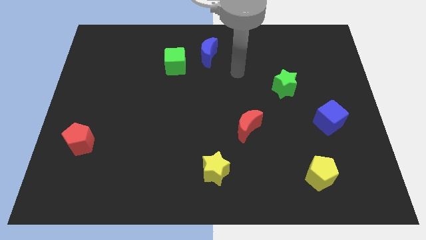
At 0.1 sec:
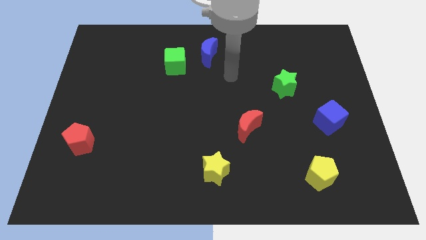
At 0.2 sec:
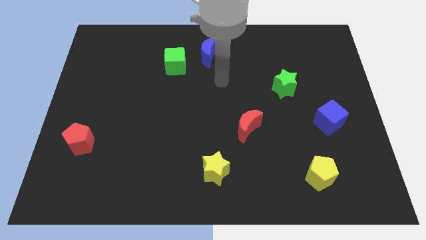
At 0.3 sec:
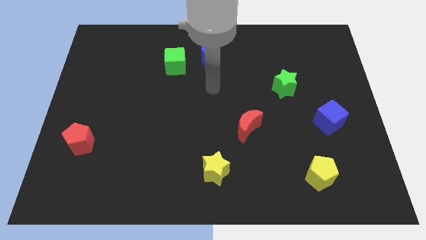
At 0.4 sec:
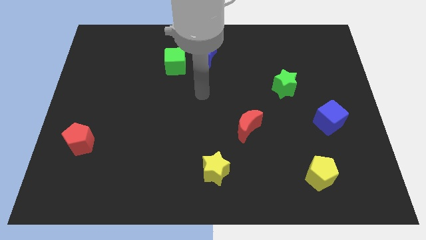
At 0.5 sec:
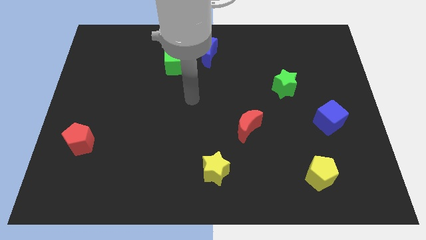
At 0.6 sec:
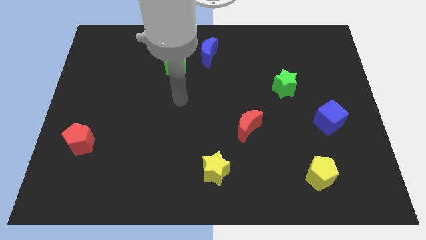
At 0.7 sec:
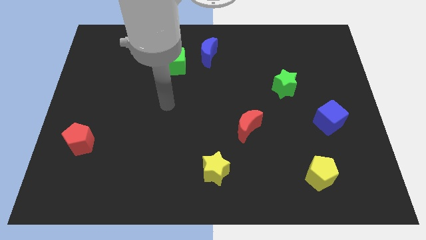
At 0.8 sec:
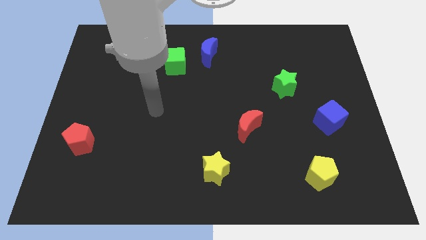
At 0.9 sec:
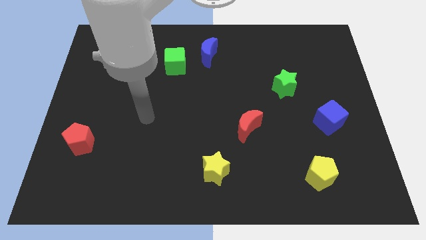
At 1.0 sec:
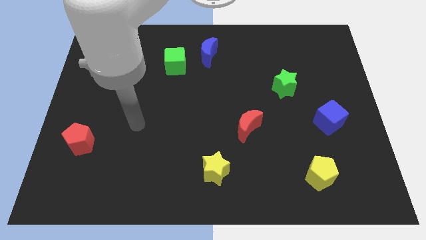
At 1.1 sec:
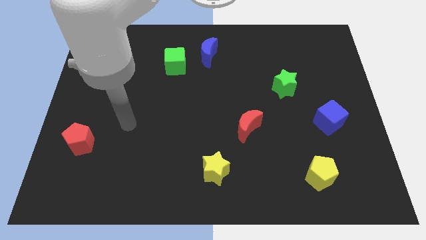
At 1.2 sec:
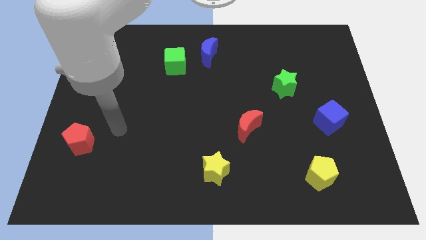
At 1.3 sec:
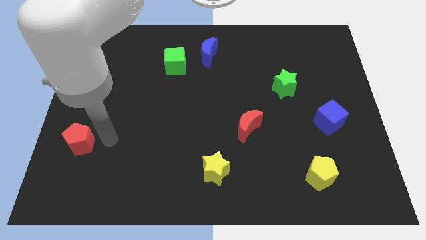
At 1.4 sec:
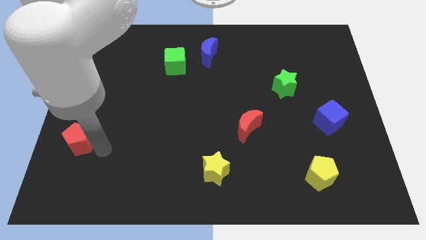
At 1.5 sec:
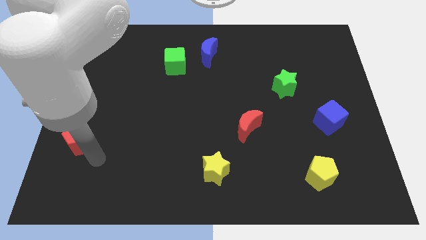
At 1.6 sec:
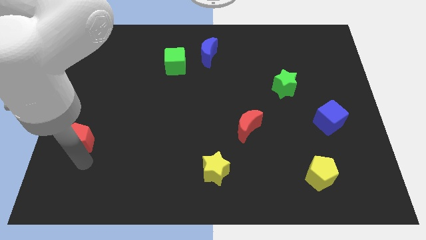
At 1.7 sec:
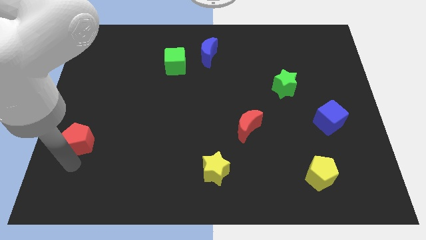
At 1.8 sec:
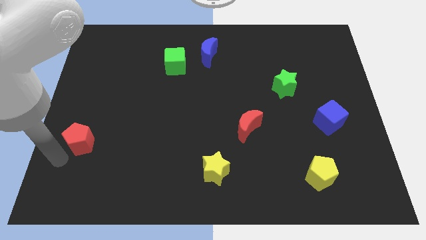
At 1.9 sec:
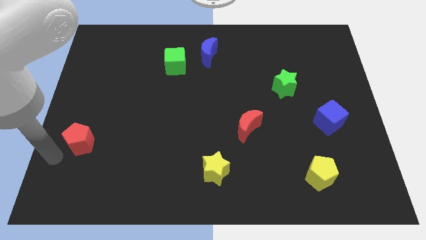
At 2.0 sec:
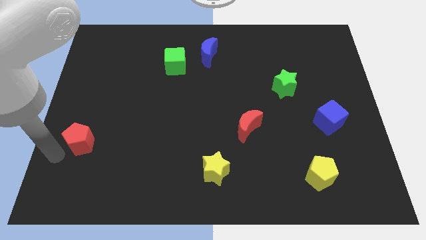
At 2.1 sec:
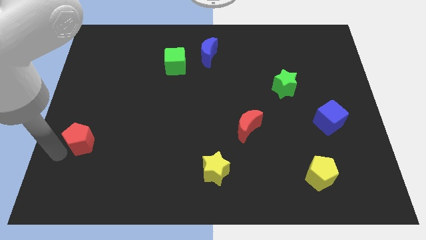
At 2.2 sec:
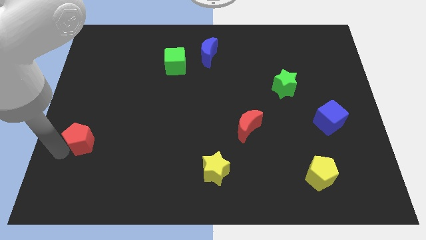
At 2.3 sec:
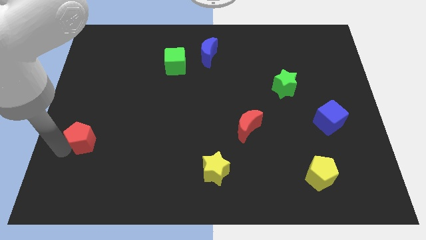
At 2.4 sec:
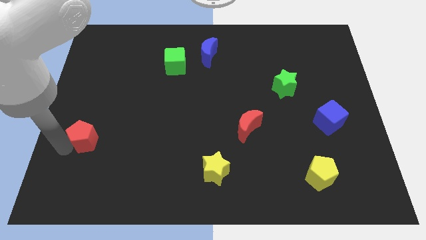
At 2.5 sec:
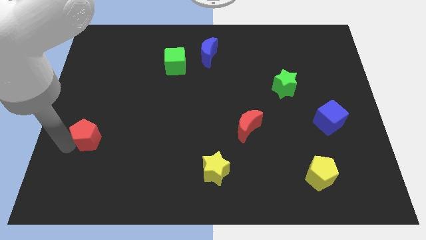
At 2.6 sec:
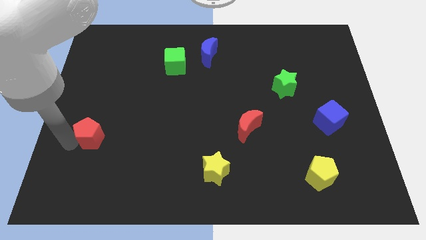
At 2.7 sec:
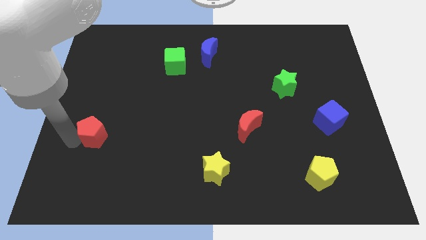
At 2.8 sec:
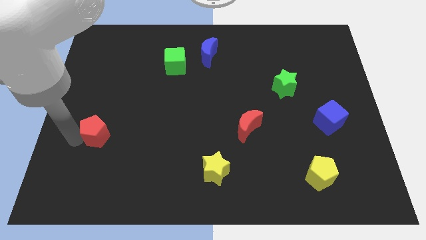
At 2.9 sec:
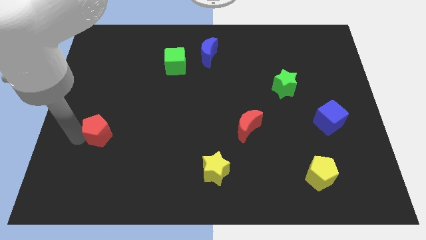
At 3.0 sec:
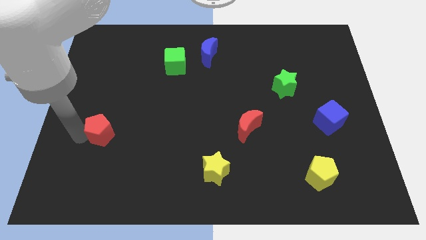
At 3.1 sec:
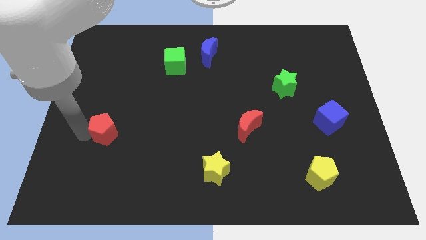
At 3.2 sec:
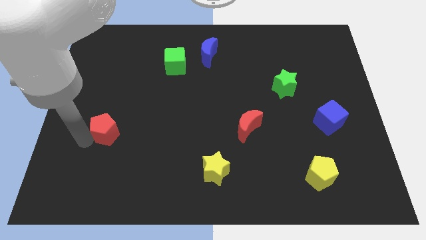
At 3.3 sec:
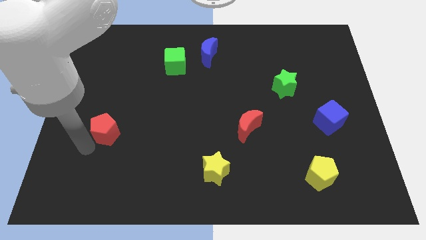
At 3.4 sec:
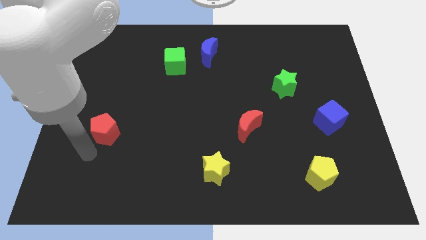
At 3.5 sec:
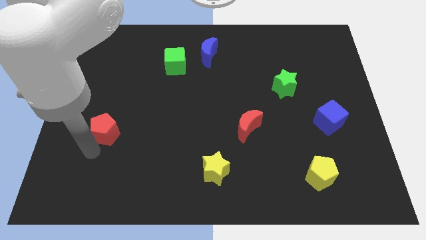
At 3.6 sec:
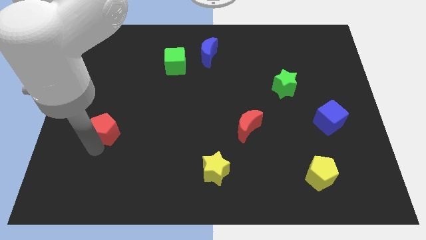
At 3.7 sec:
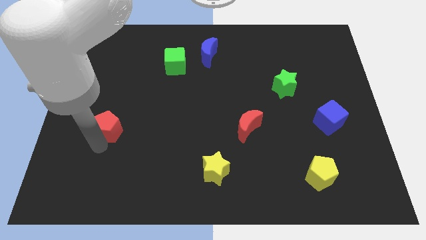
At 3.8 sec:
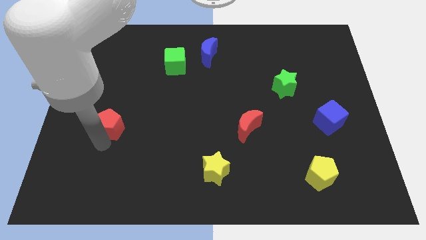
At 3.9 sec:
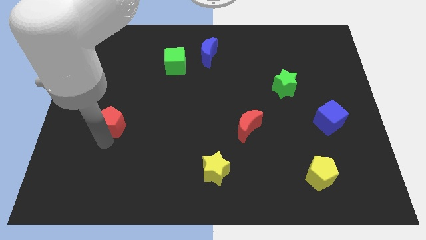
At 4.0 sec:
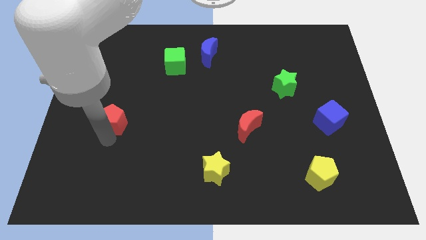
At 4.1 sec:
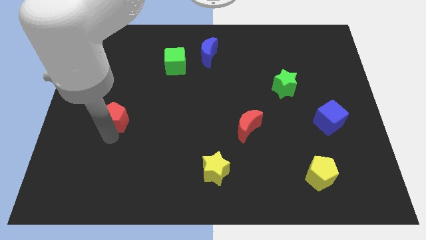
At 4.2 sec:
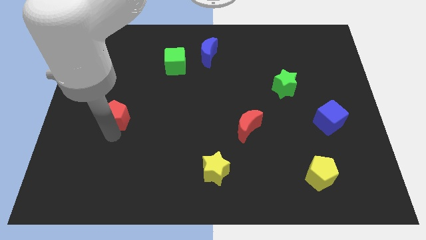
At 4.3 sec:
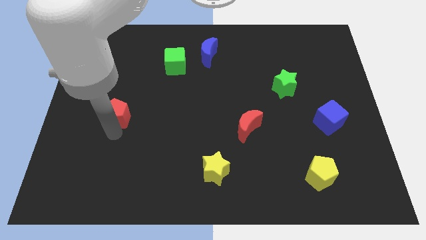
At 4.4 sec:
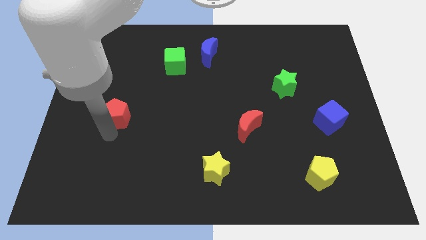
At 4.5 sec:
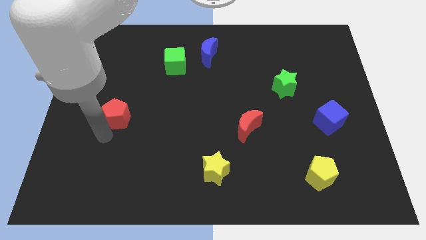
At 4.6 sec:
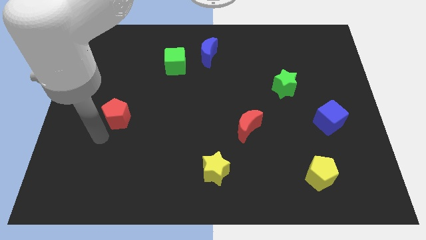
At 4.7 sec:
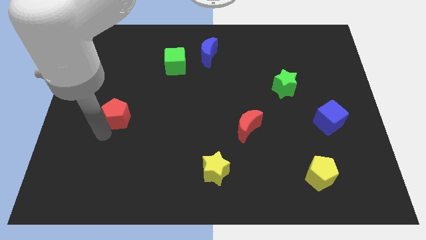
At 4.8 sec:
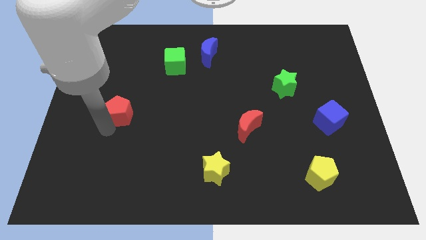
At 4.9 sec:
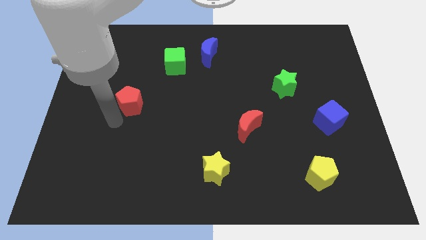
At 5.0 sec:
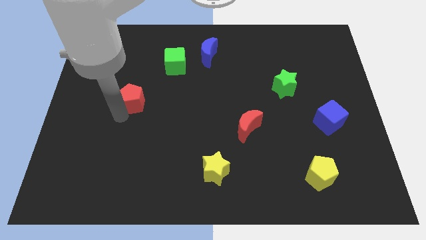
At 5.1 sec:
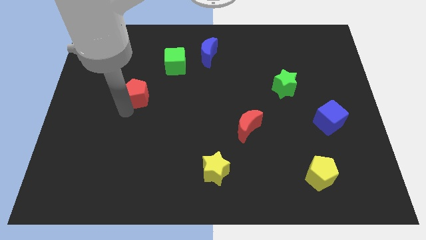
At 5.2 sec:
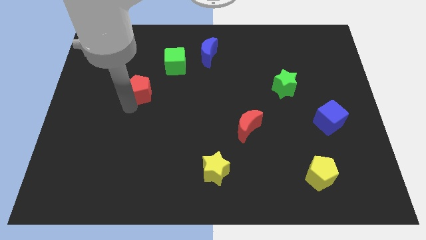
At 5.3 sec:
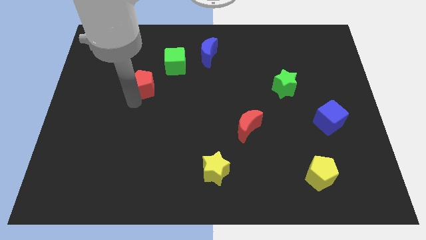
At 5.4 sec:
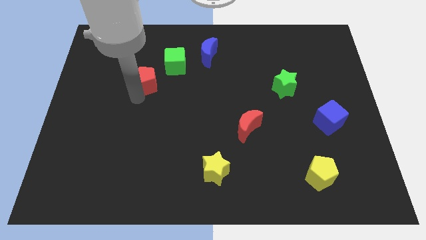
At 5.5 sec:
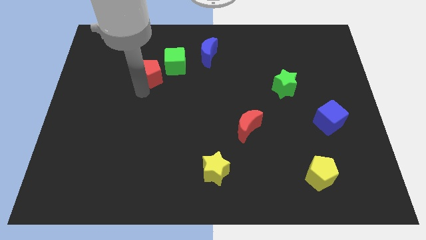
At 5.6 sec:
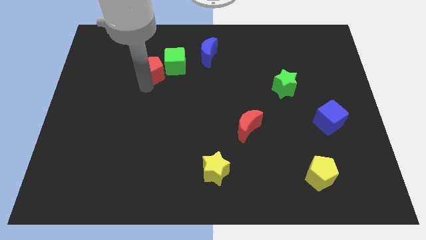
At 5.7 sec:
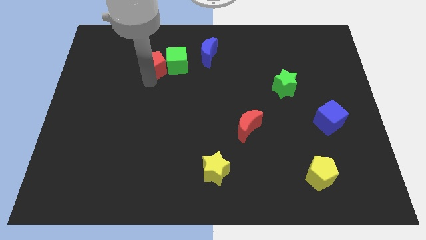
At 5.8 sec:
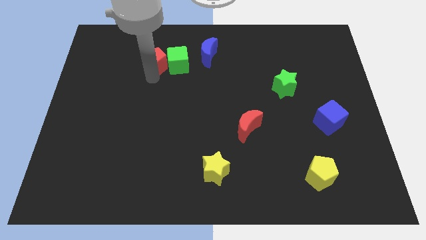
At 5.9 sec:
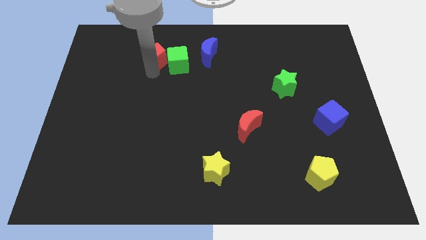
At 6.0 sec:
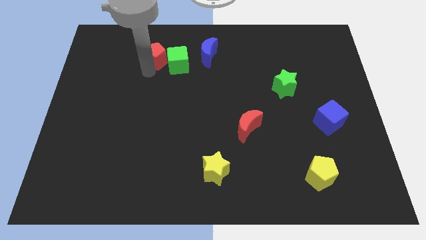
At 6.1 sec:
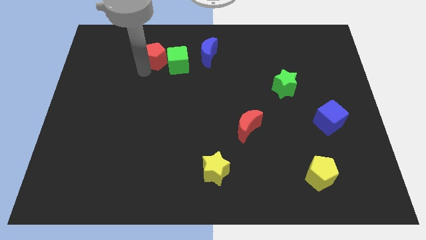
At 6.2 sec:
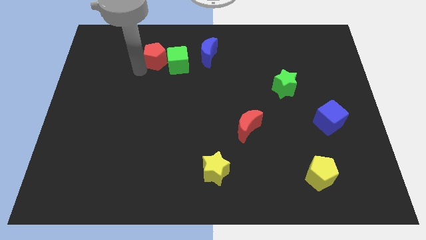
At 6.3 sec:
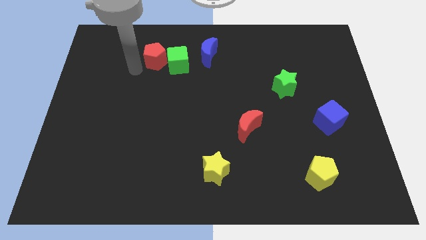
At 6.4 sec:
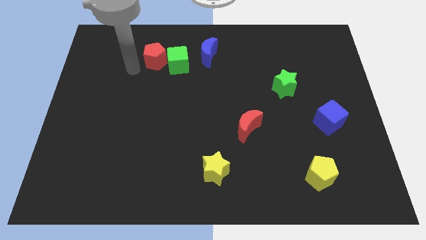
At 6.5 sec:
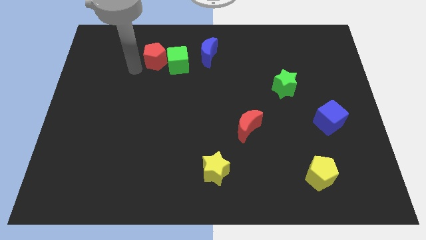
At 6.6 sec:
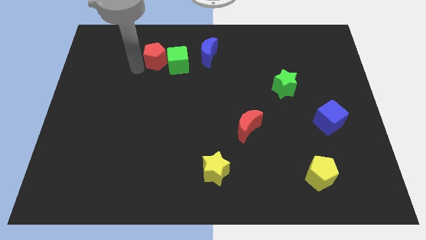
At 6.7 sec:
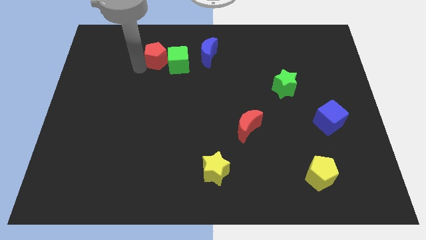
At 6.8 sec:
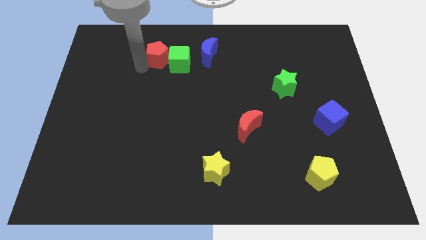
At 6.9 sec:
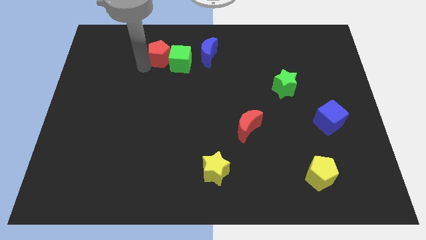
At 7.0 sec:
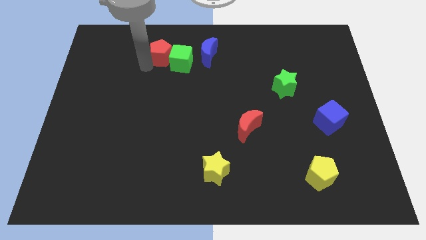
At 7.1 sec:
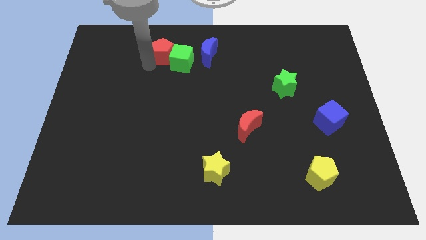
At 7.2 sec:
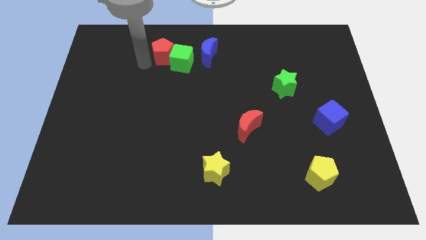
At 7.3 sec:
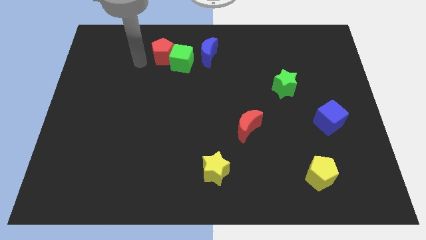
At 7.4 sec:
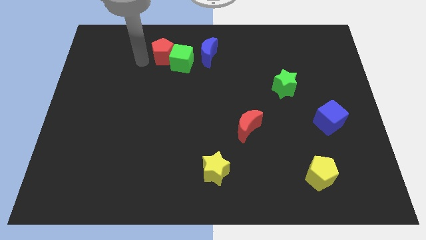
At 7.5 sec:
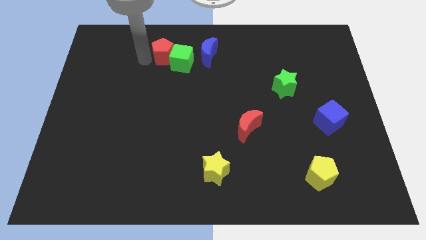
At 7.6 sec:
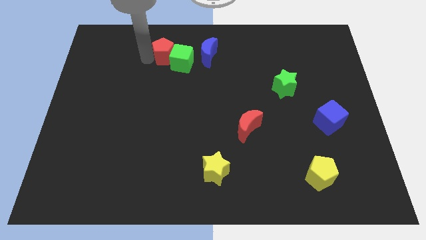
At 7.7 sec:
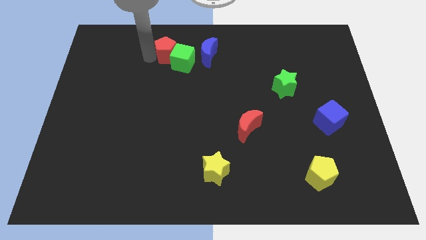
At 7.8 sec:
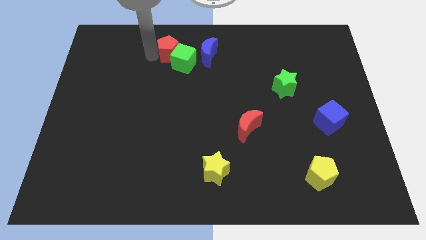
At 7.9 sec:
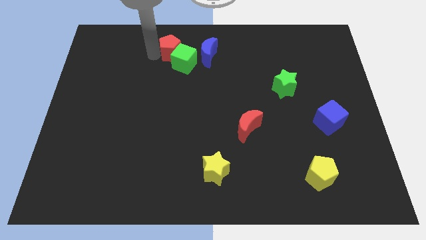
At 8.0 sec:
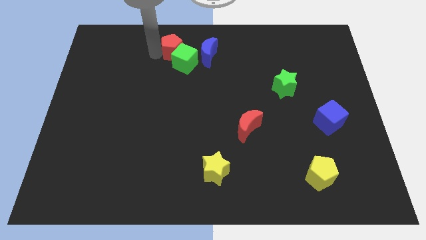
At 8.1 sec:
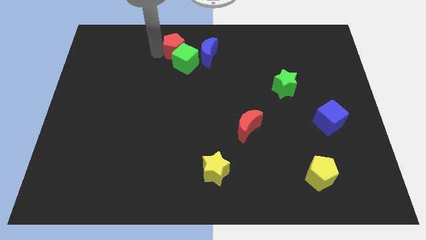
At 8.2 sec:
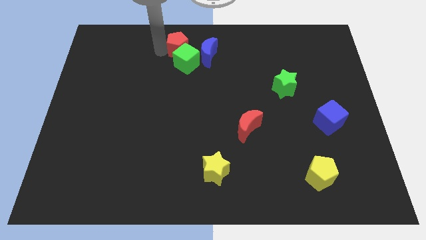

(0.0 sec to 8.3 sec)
slide the red pentagon to the top
